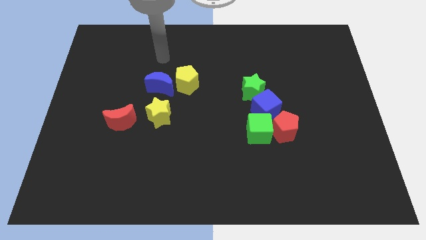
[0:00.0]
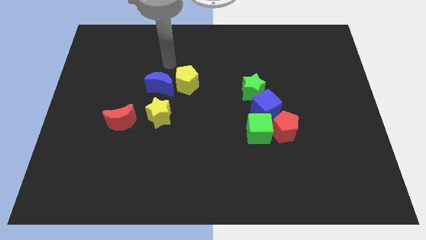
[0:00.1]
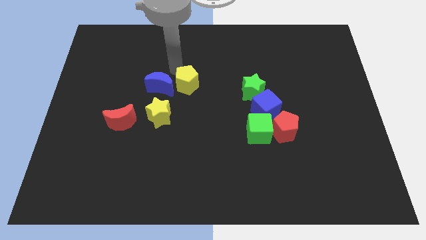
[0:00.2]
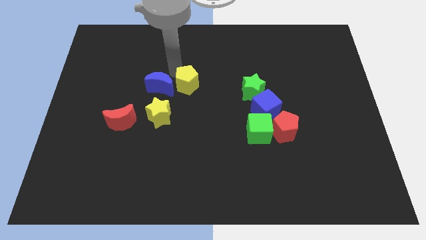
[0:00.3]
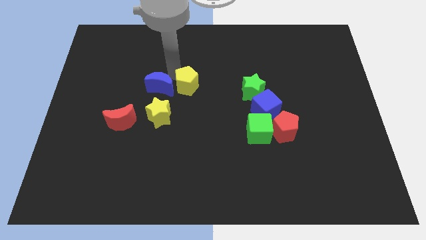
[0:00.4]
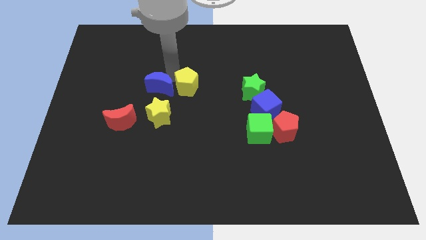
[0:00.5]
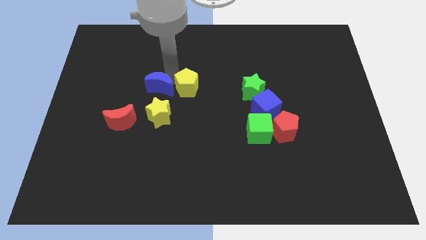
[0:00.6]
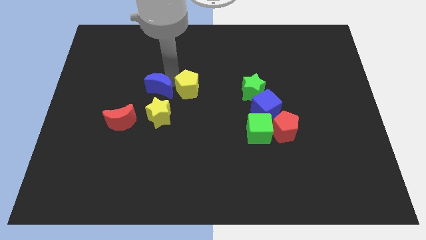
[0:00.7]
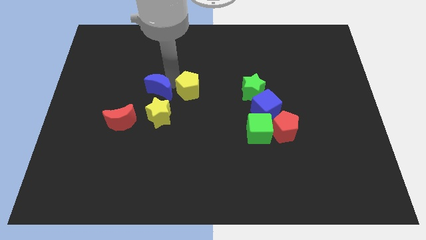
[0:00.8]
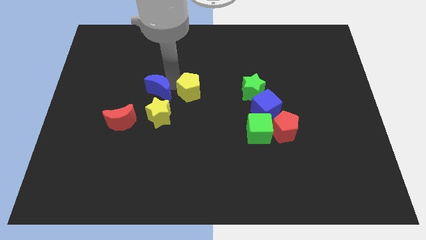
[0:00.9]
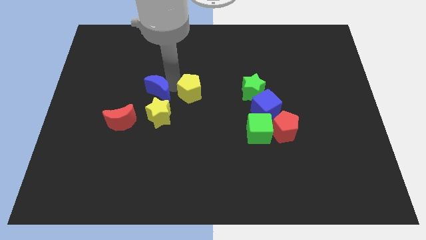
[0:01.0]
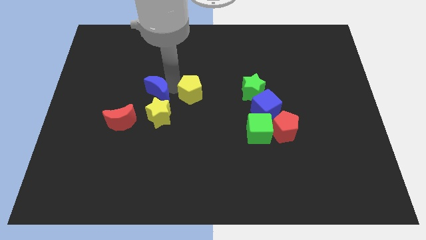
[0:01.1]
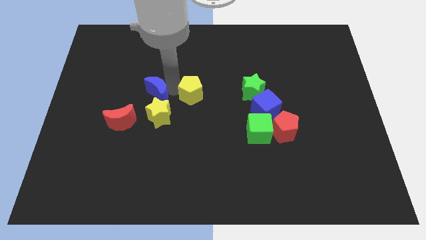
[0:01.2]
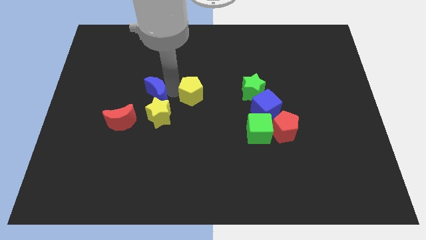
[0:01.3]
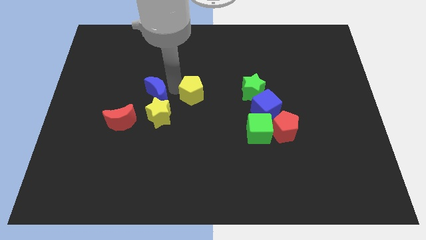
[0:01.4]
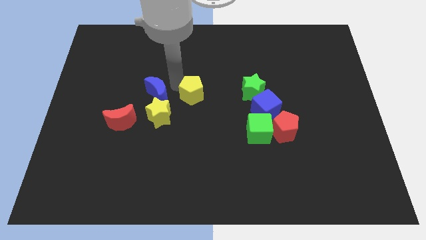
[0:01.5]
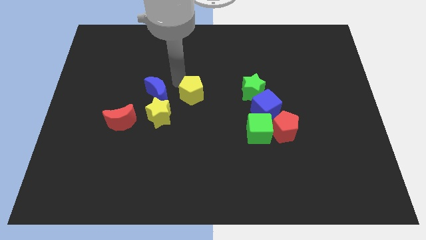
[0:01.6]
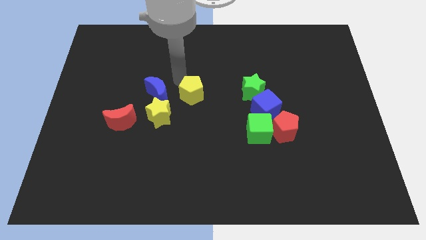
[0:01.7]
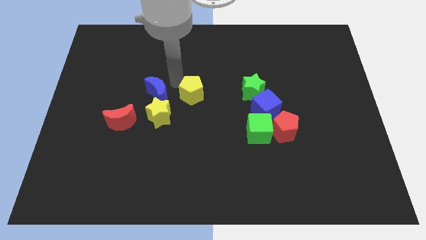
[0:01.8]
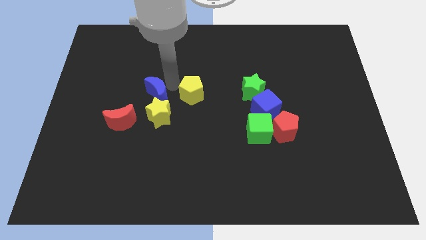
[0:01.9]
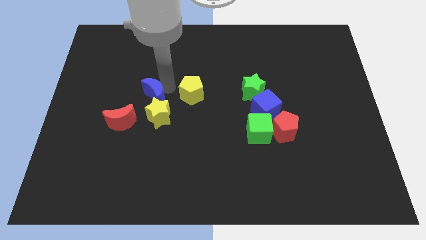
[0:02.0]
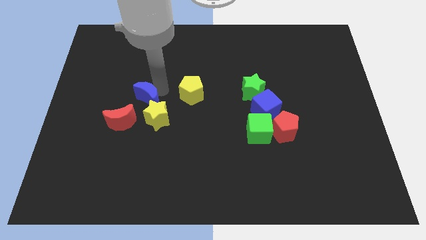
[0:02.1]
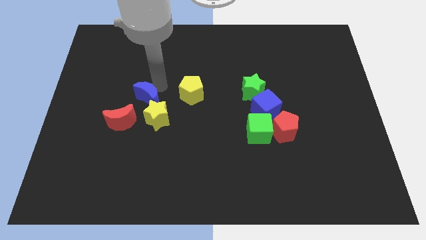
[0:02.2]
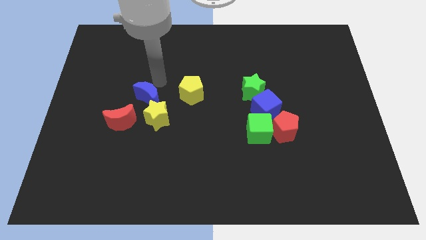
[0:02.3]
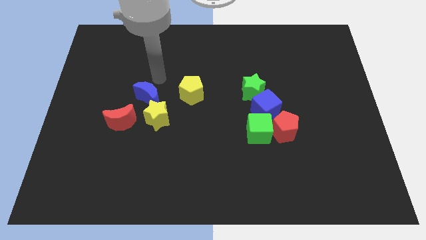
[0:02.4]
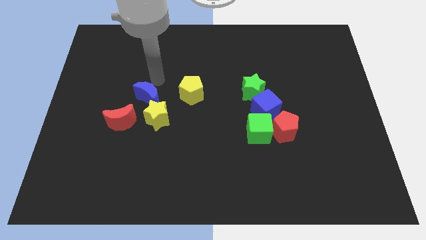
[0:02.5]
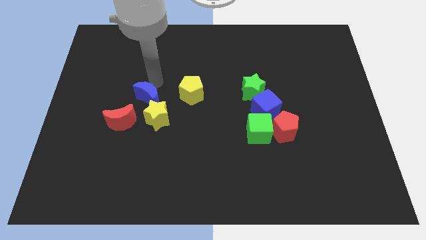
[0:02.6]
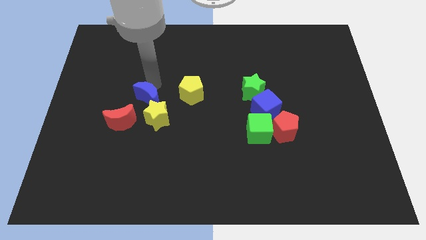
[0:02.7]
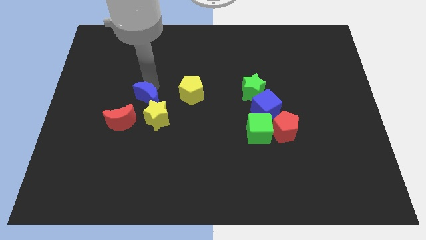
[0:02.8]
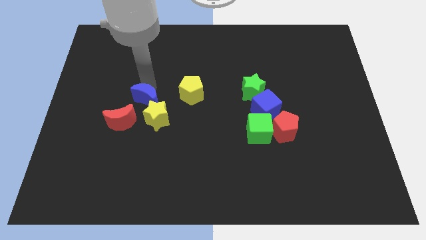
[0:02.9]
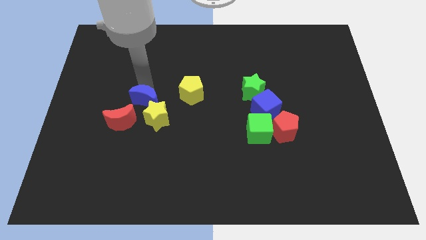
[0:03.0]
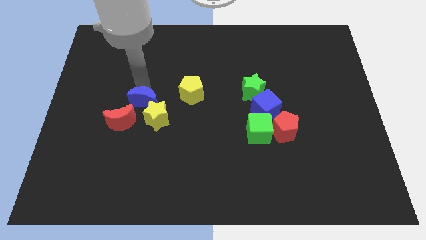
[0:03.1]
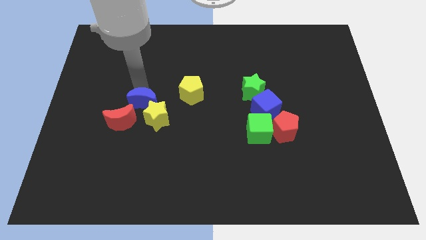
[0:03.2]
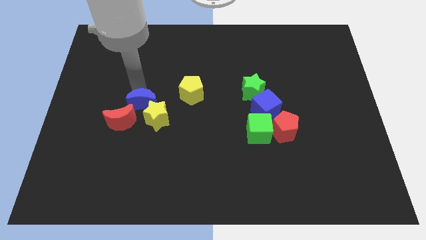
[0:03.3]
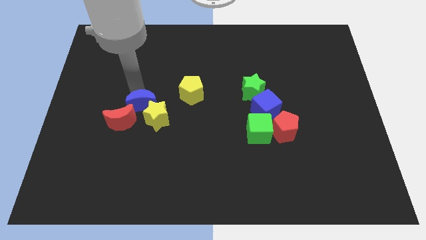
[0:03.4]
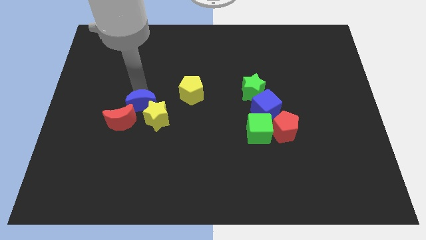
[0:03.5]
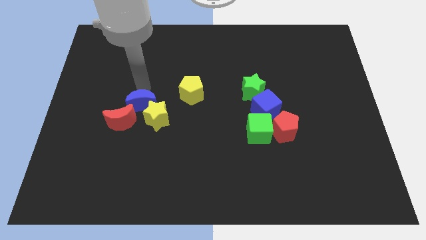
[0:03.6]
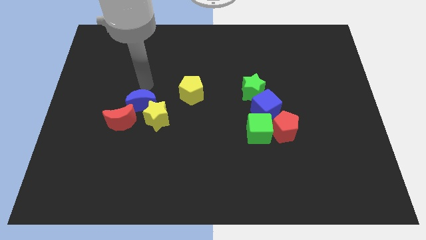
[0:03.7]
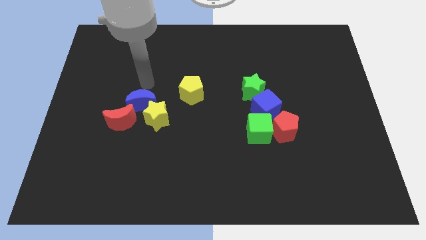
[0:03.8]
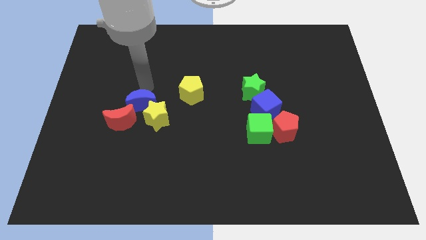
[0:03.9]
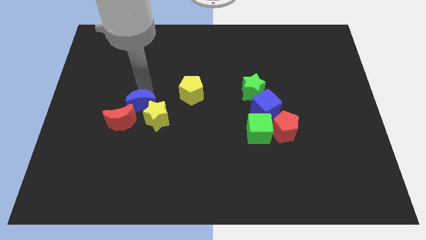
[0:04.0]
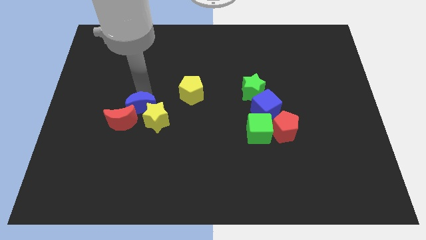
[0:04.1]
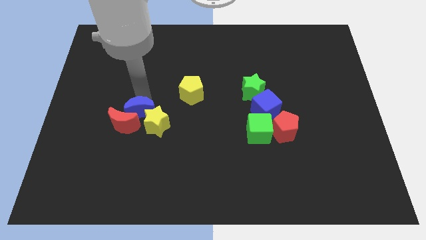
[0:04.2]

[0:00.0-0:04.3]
push the blue moon down a little

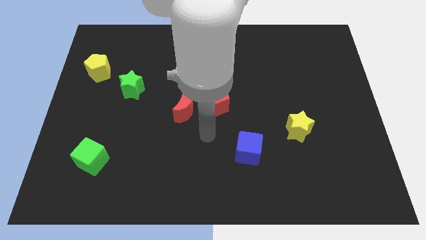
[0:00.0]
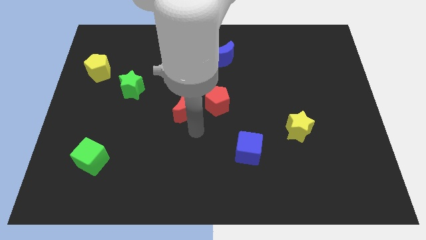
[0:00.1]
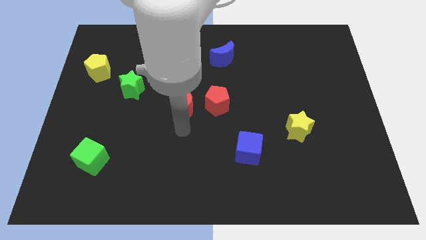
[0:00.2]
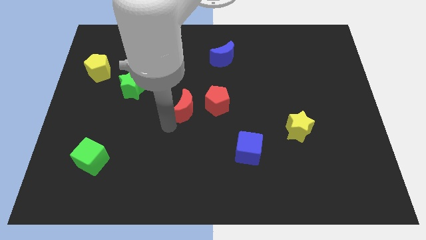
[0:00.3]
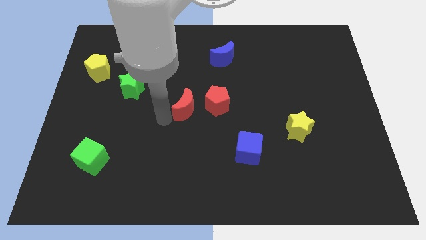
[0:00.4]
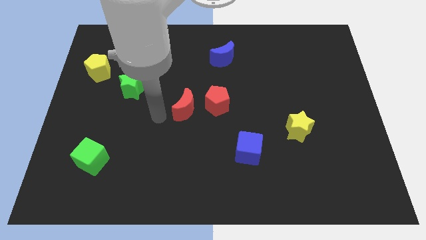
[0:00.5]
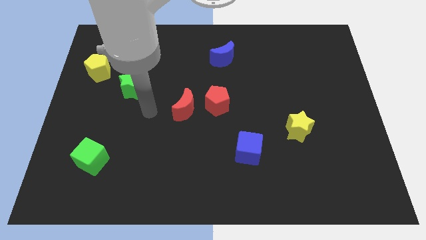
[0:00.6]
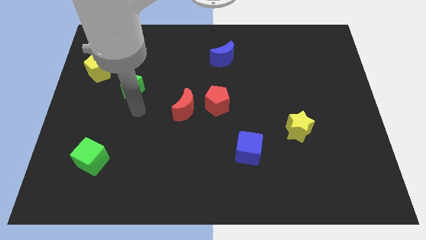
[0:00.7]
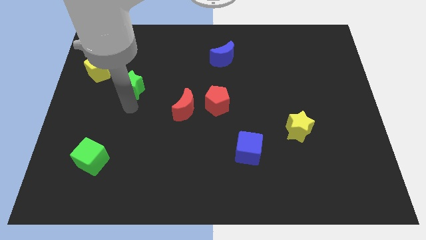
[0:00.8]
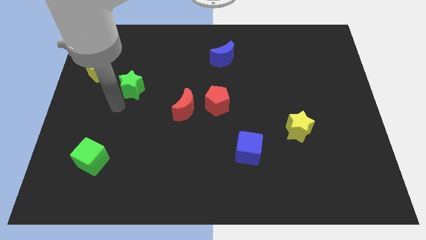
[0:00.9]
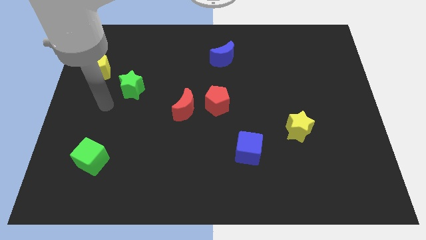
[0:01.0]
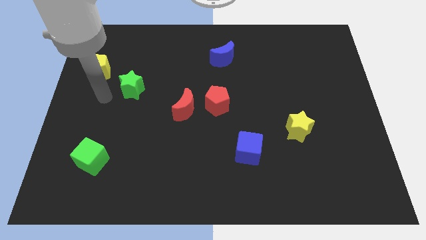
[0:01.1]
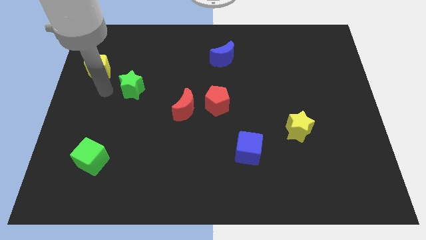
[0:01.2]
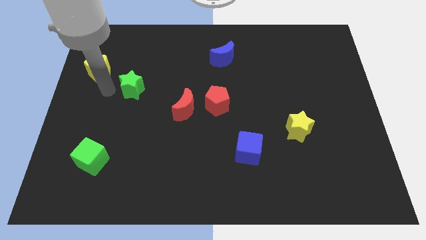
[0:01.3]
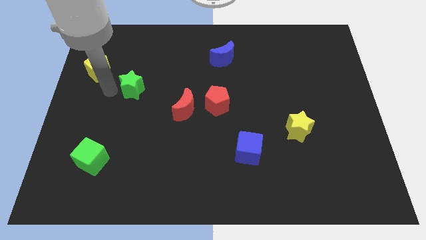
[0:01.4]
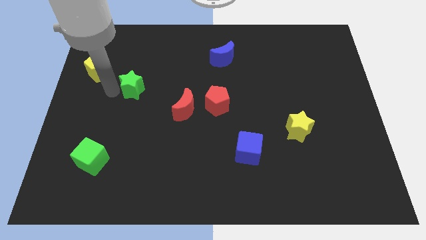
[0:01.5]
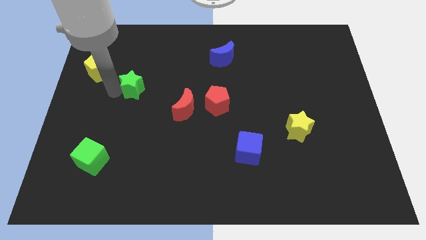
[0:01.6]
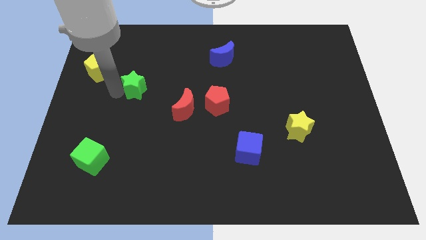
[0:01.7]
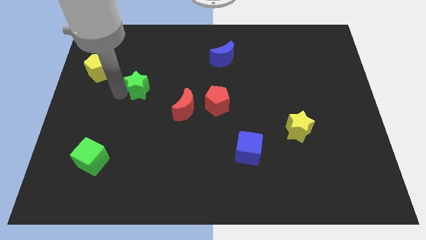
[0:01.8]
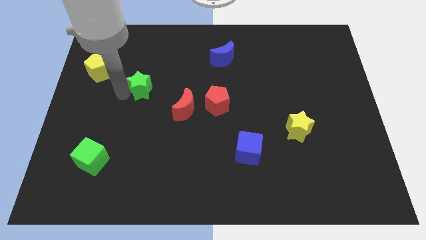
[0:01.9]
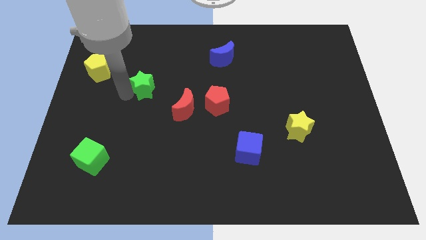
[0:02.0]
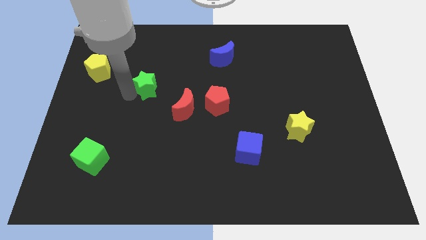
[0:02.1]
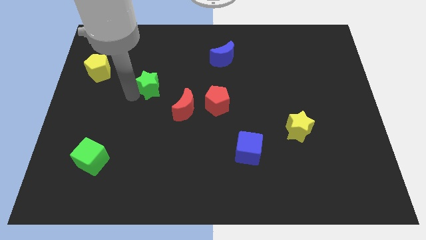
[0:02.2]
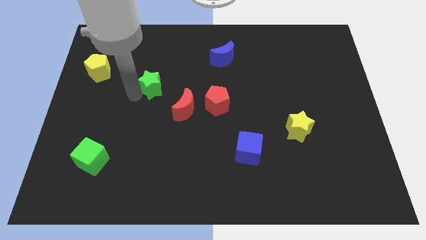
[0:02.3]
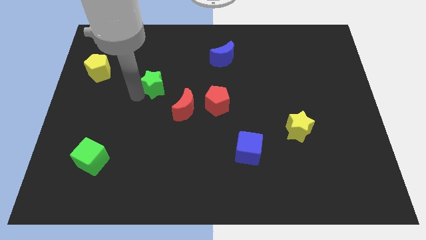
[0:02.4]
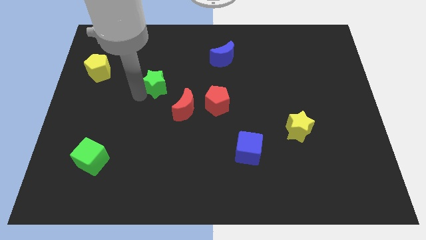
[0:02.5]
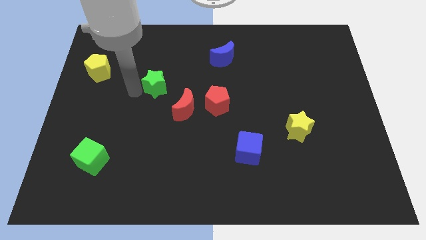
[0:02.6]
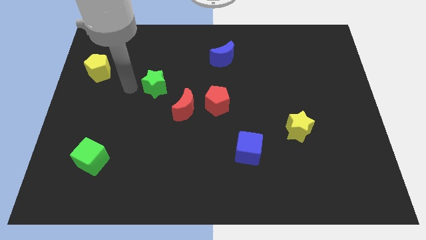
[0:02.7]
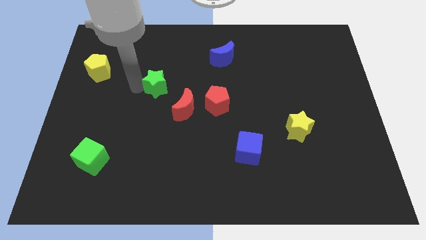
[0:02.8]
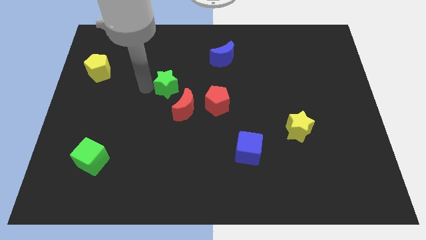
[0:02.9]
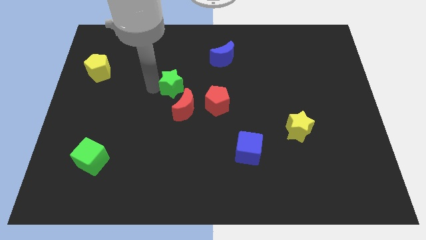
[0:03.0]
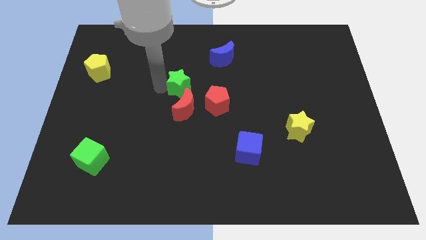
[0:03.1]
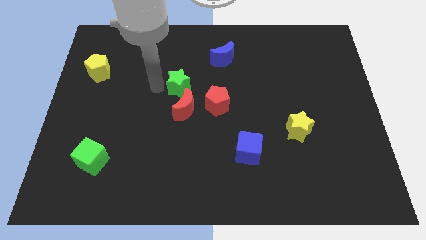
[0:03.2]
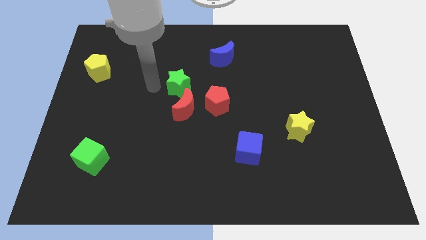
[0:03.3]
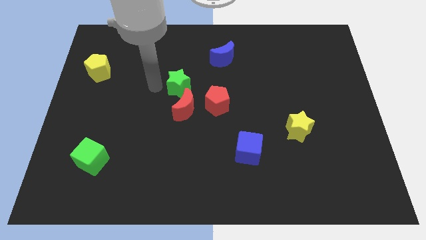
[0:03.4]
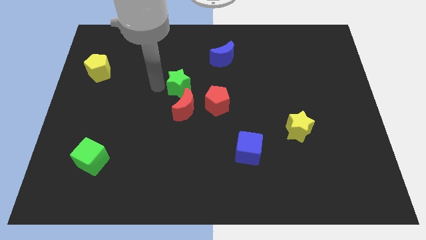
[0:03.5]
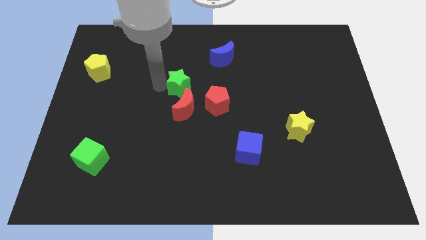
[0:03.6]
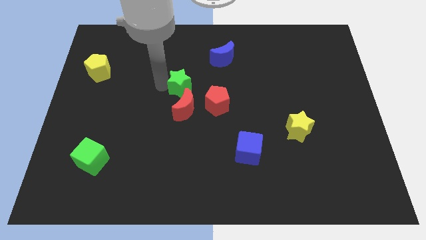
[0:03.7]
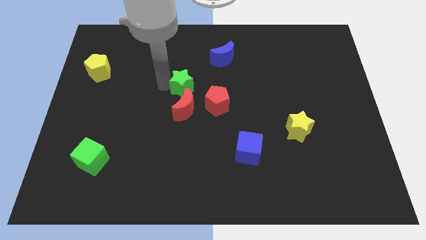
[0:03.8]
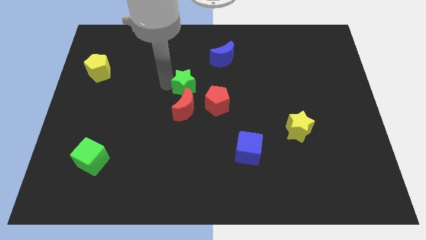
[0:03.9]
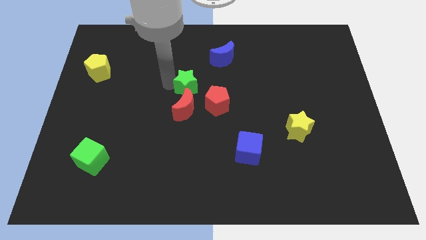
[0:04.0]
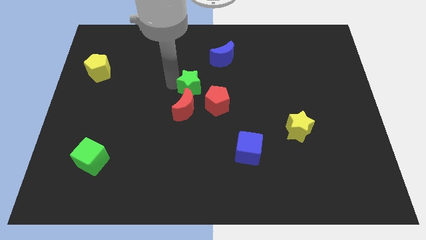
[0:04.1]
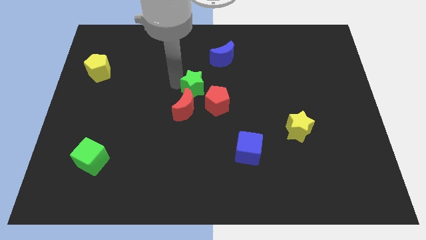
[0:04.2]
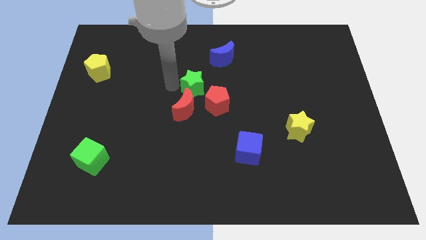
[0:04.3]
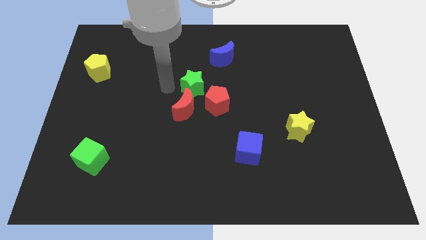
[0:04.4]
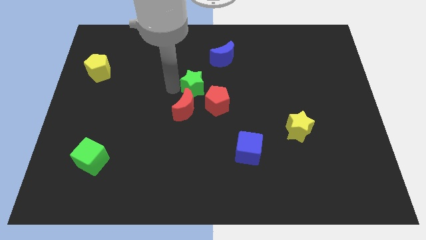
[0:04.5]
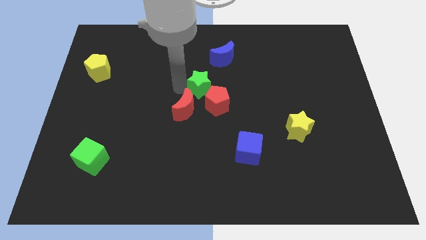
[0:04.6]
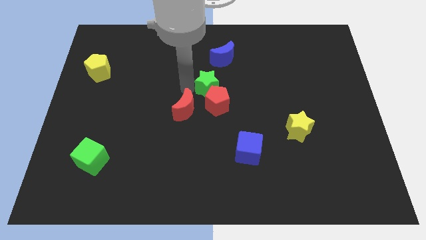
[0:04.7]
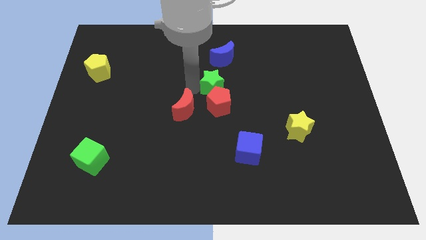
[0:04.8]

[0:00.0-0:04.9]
push the green star to the right
